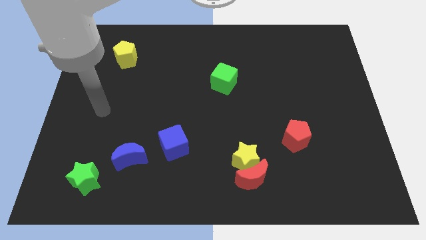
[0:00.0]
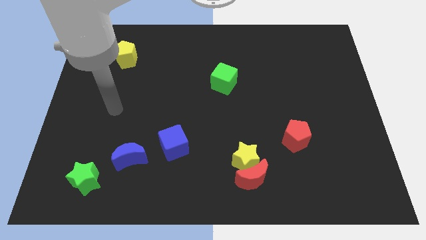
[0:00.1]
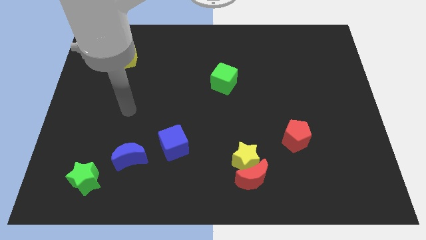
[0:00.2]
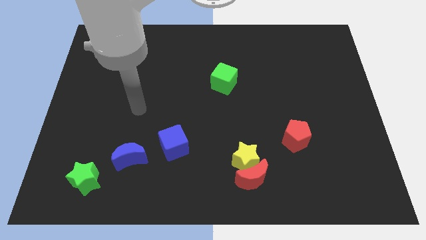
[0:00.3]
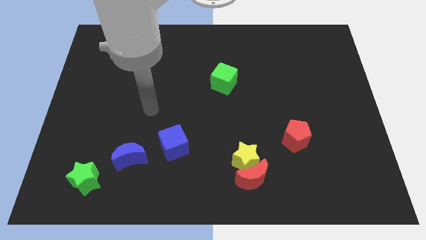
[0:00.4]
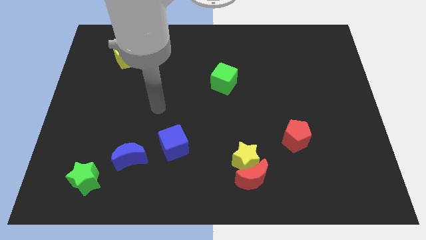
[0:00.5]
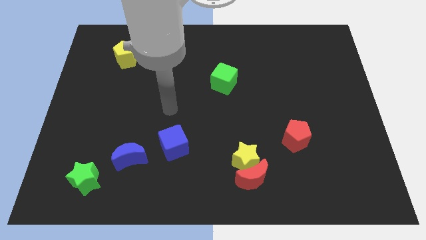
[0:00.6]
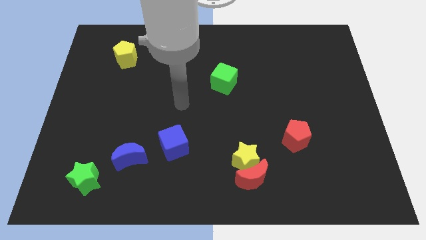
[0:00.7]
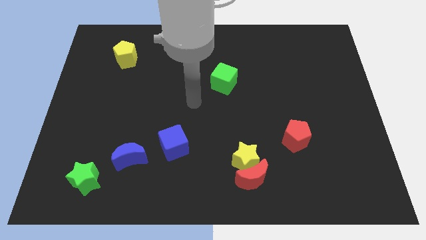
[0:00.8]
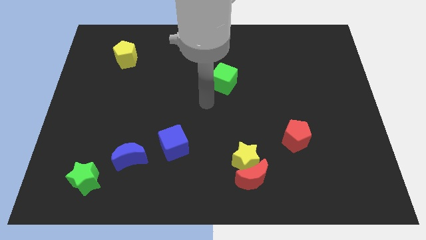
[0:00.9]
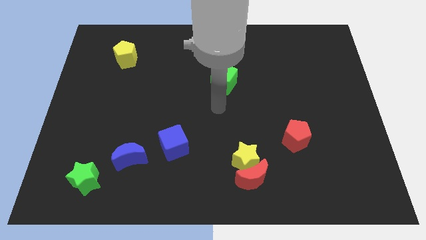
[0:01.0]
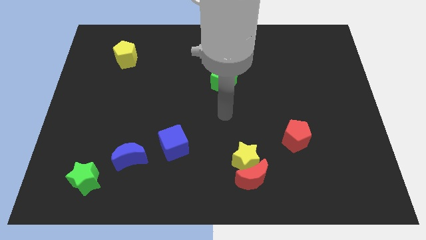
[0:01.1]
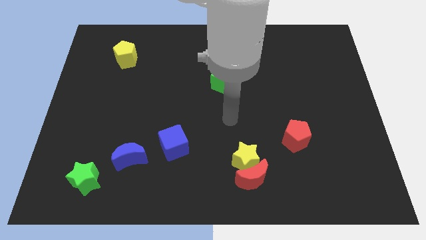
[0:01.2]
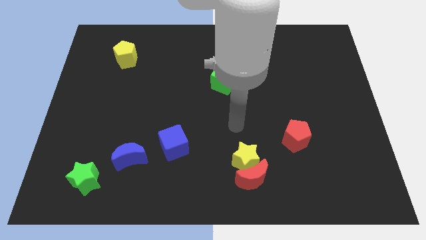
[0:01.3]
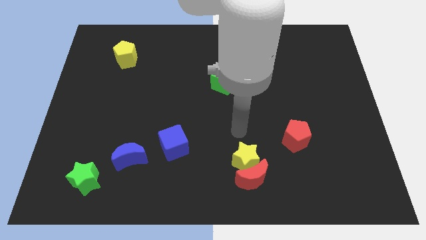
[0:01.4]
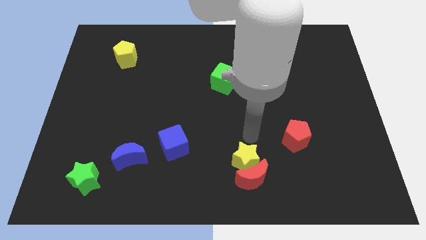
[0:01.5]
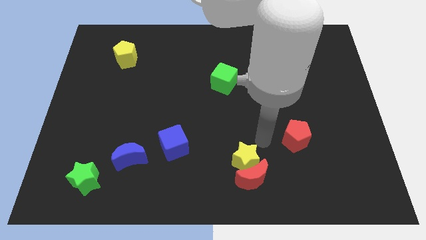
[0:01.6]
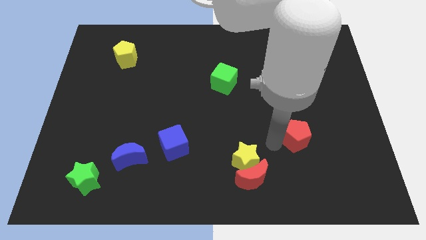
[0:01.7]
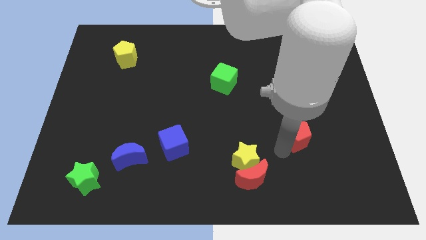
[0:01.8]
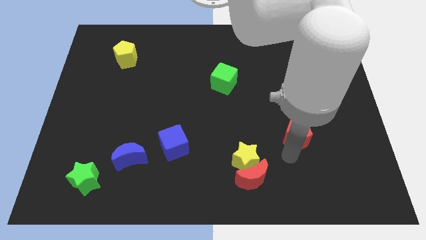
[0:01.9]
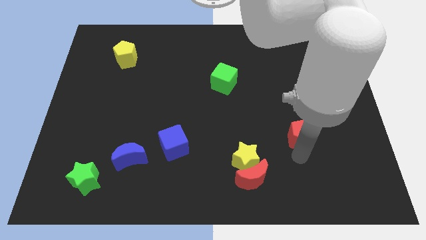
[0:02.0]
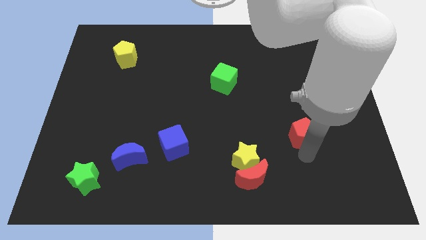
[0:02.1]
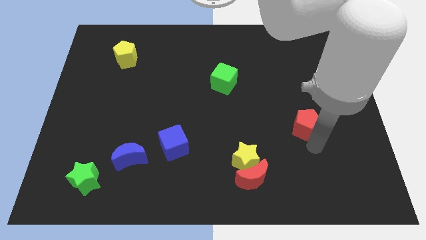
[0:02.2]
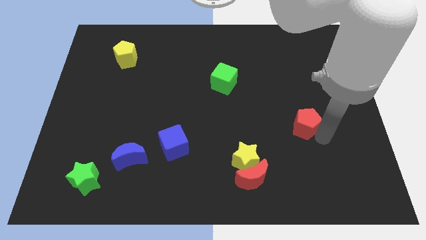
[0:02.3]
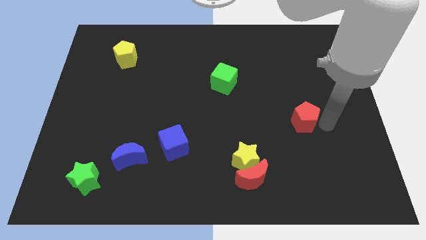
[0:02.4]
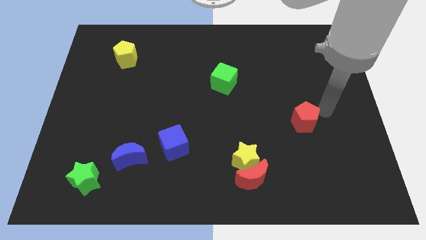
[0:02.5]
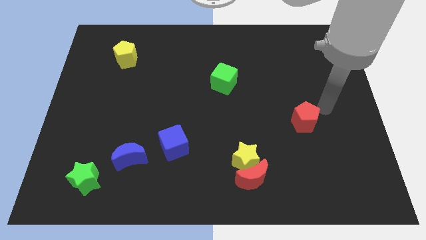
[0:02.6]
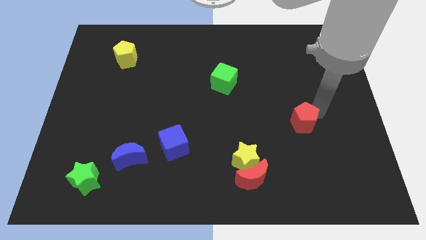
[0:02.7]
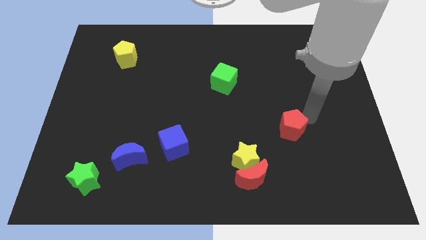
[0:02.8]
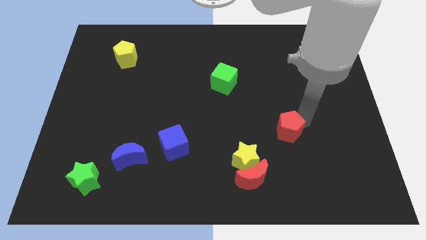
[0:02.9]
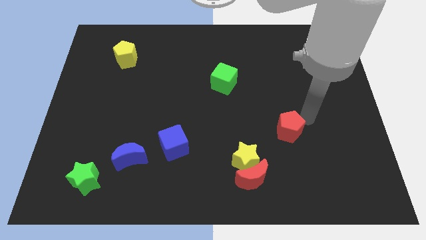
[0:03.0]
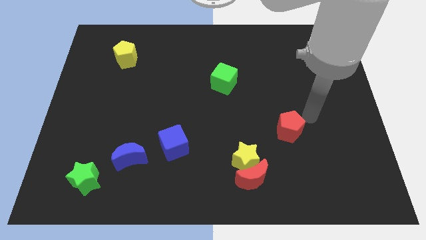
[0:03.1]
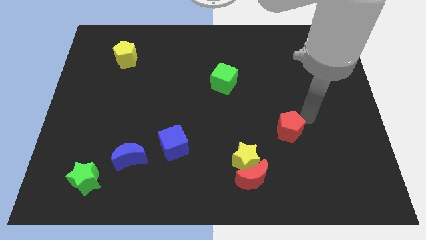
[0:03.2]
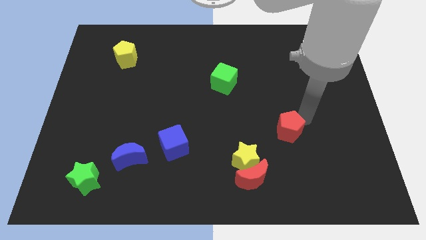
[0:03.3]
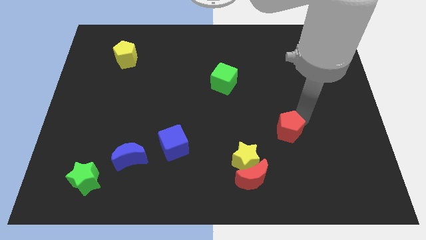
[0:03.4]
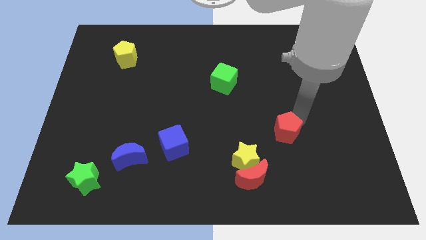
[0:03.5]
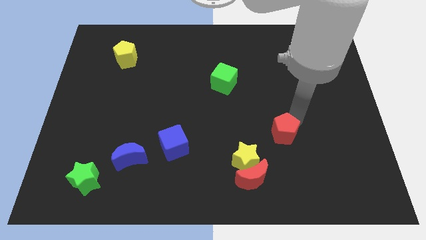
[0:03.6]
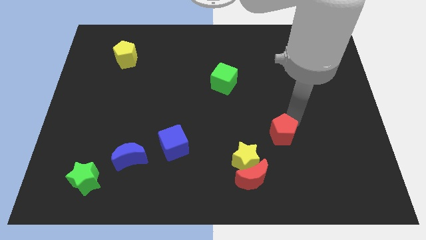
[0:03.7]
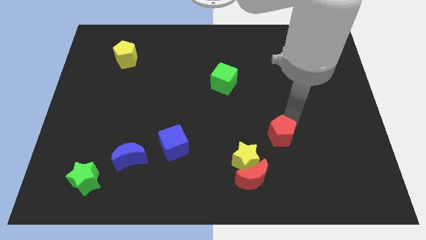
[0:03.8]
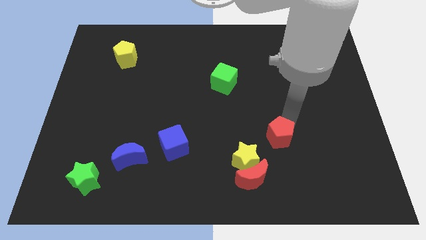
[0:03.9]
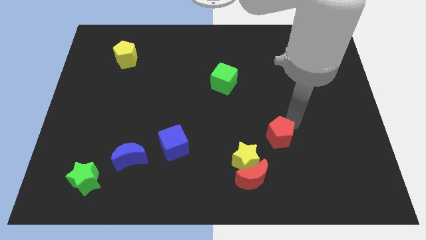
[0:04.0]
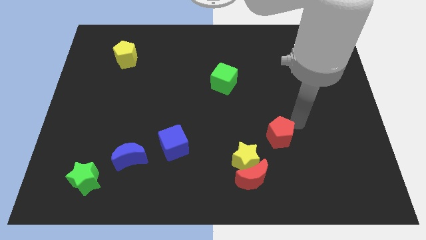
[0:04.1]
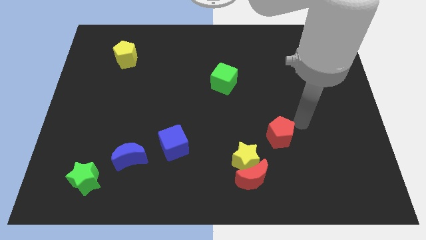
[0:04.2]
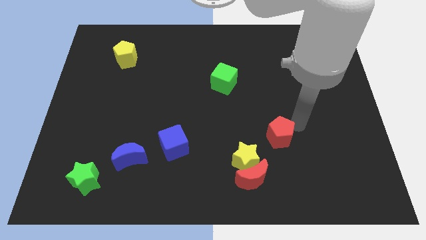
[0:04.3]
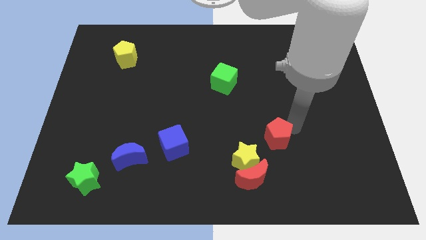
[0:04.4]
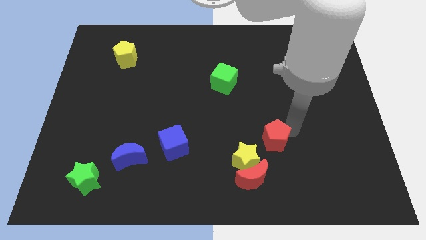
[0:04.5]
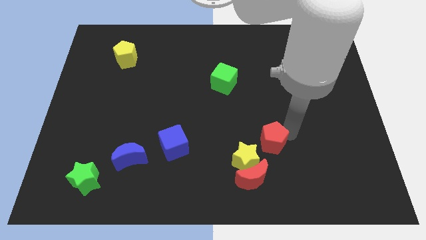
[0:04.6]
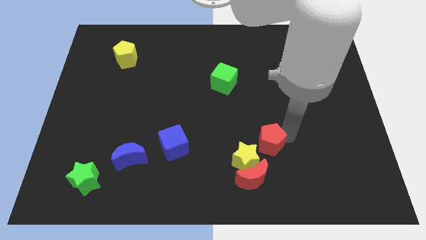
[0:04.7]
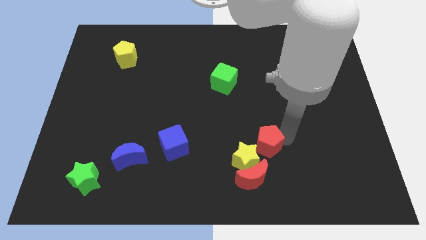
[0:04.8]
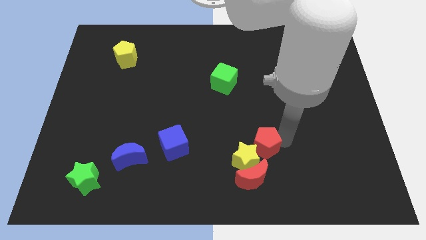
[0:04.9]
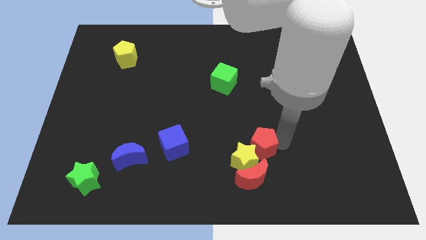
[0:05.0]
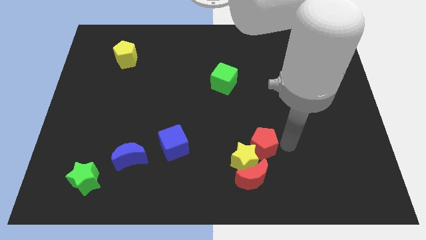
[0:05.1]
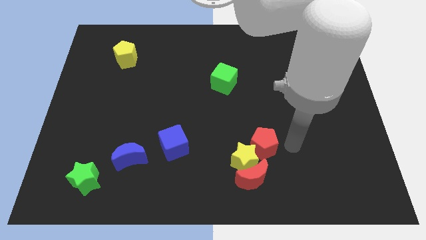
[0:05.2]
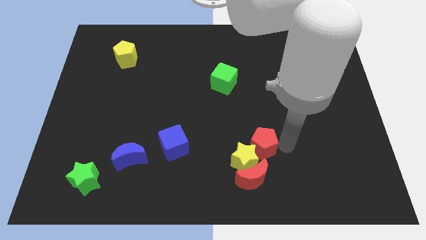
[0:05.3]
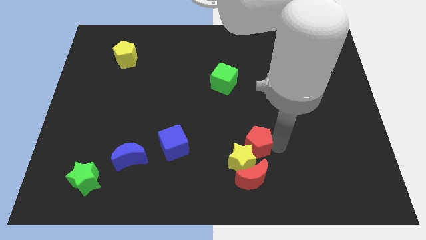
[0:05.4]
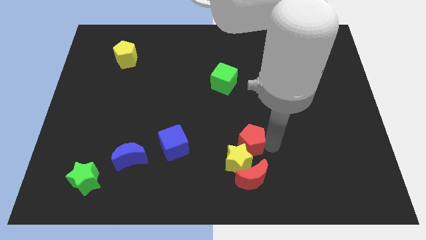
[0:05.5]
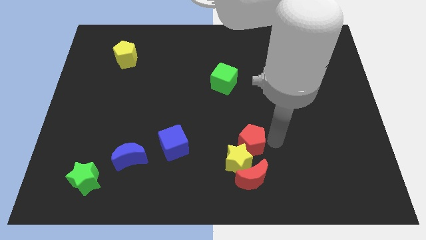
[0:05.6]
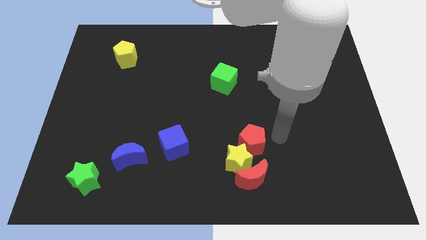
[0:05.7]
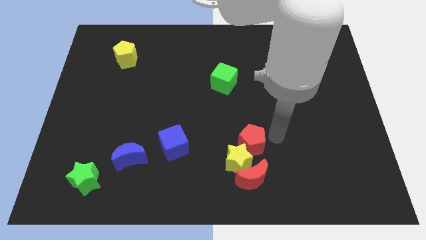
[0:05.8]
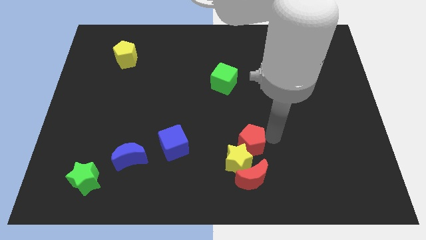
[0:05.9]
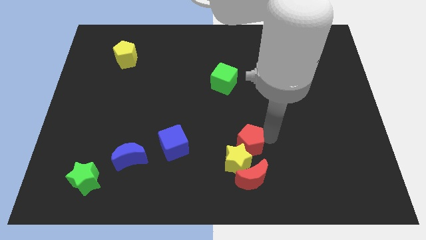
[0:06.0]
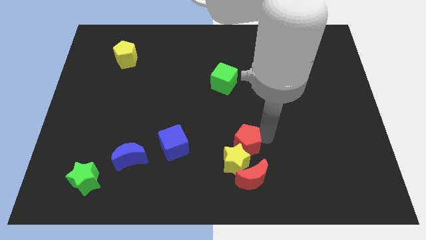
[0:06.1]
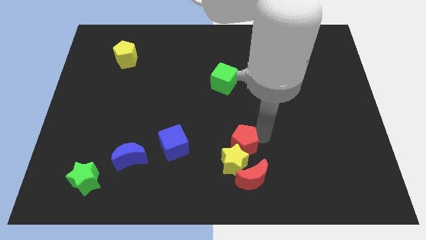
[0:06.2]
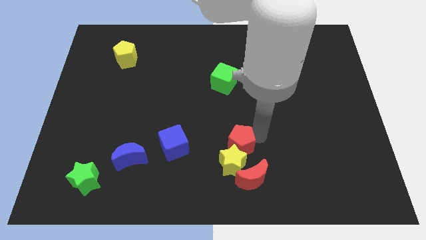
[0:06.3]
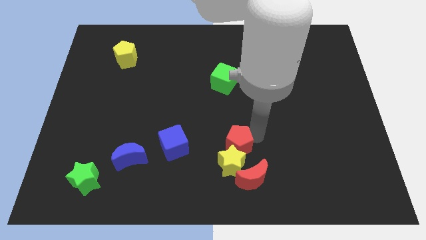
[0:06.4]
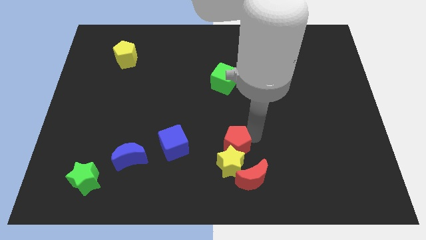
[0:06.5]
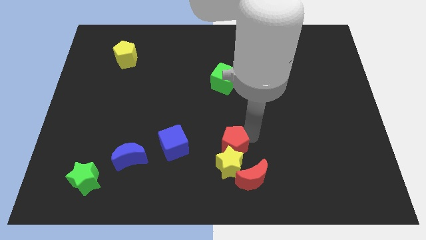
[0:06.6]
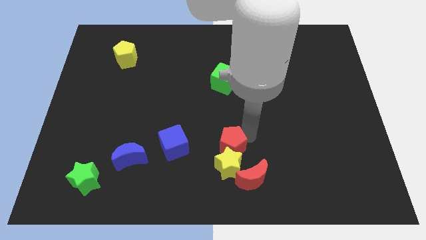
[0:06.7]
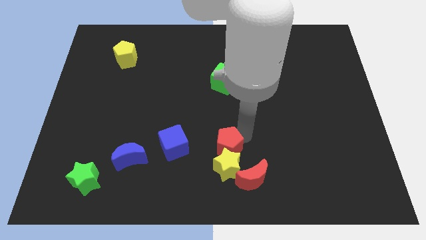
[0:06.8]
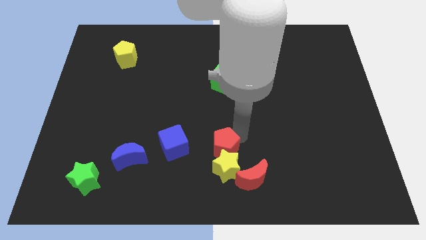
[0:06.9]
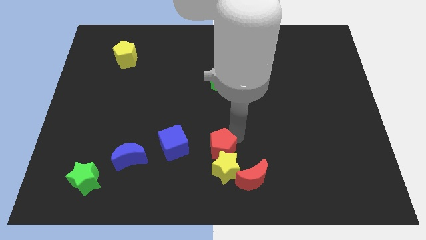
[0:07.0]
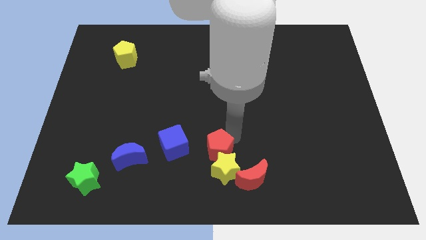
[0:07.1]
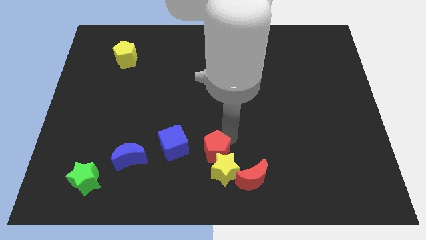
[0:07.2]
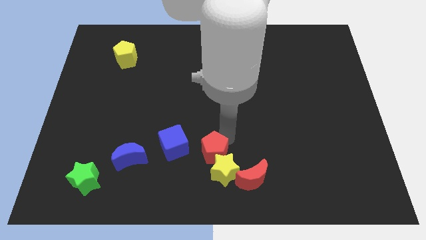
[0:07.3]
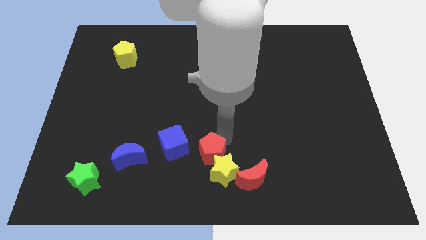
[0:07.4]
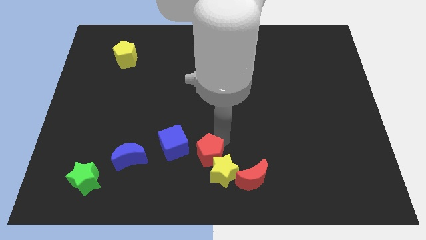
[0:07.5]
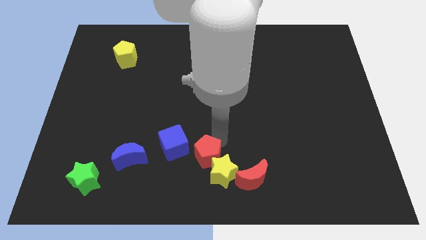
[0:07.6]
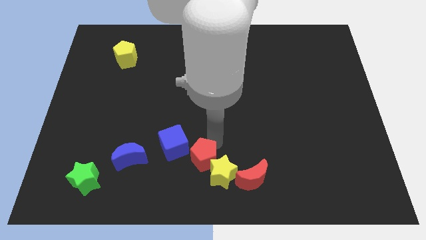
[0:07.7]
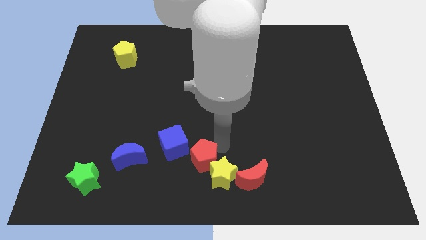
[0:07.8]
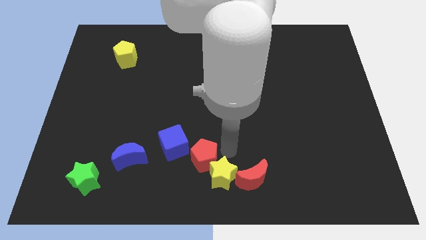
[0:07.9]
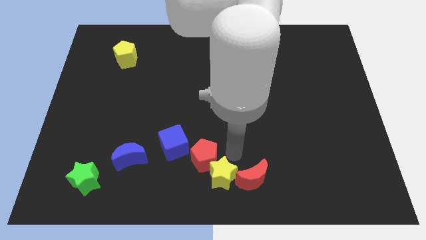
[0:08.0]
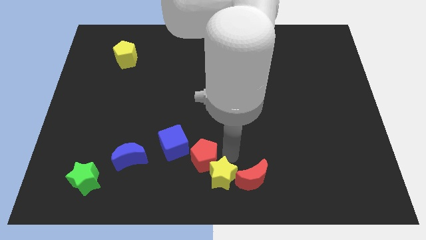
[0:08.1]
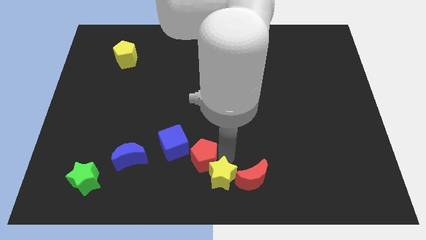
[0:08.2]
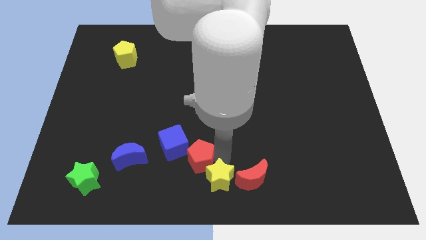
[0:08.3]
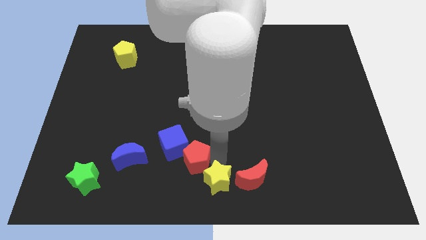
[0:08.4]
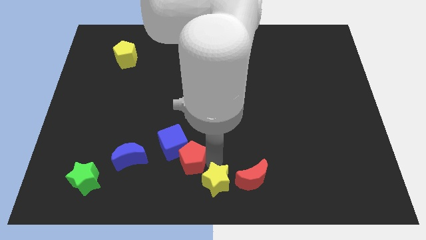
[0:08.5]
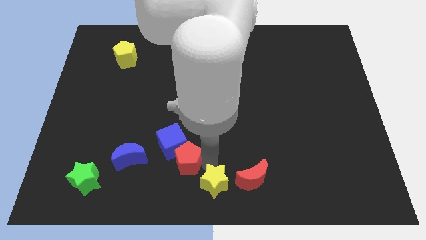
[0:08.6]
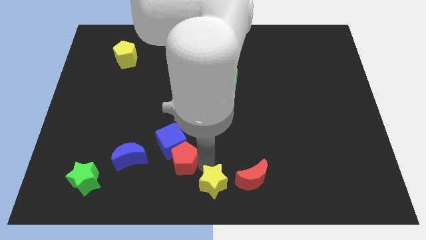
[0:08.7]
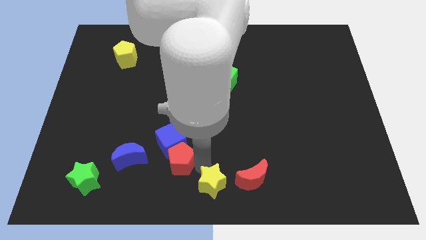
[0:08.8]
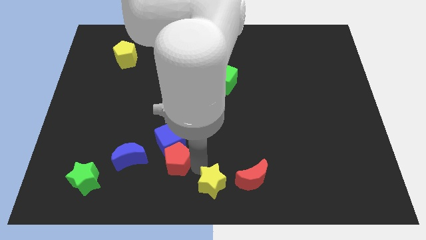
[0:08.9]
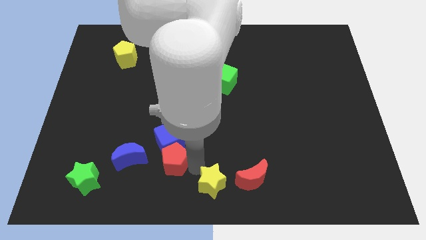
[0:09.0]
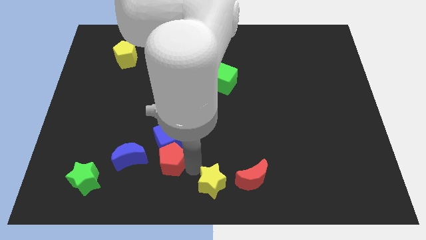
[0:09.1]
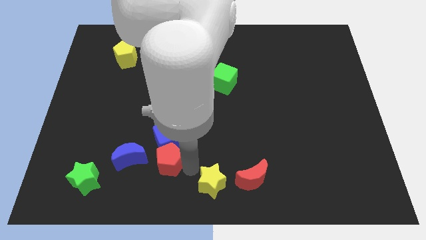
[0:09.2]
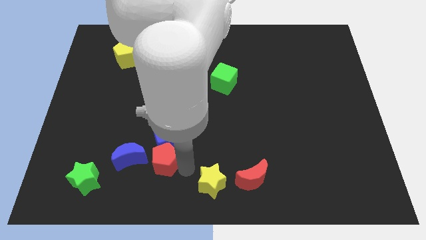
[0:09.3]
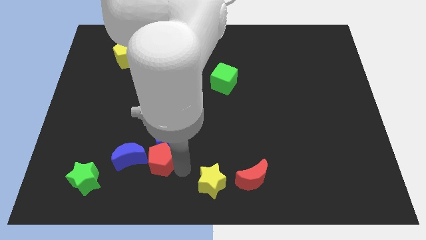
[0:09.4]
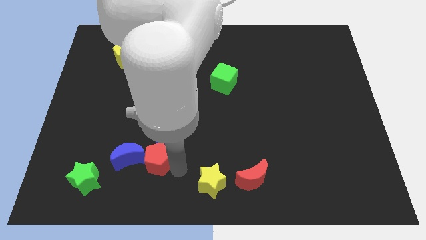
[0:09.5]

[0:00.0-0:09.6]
put the red pentagon towards the blue moon
